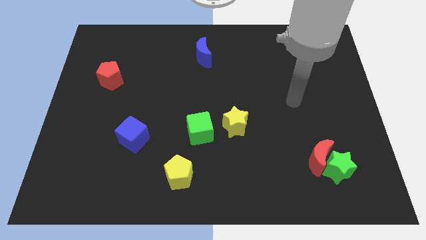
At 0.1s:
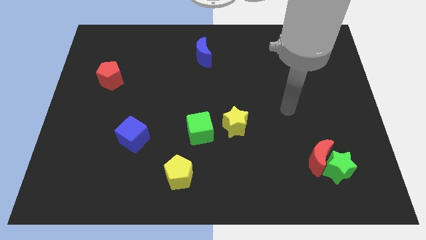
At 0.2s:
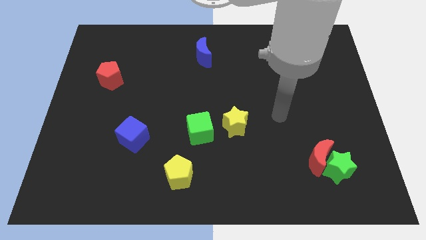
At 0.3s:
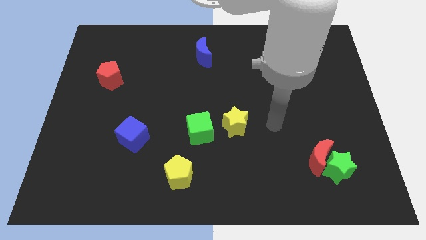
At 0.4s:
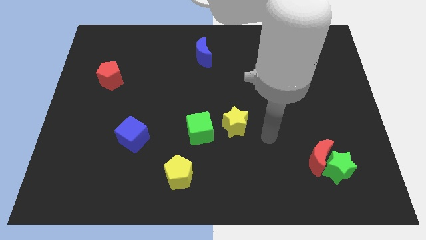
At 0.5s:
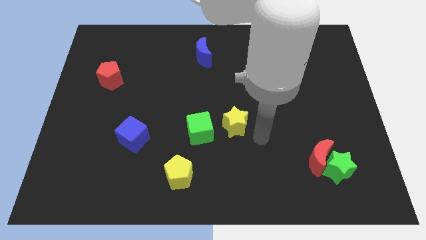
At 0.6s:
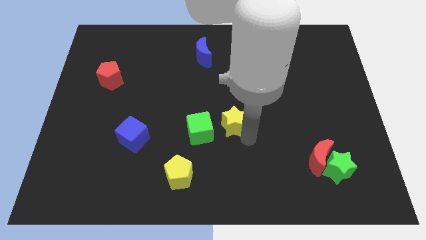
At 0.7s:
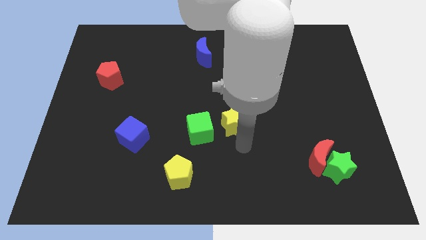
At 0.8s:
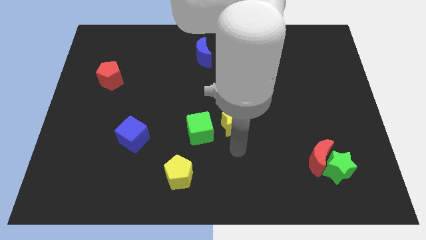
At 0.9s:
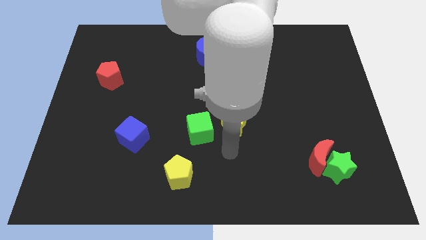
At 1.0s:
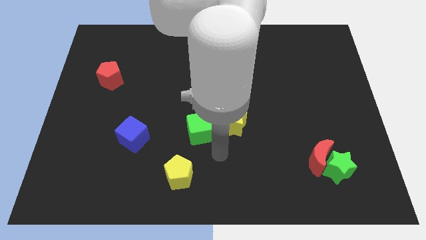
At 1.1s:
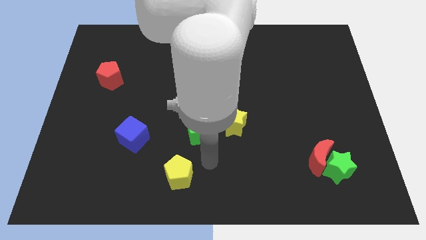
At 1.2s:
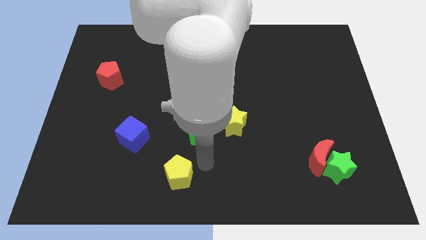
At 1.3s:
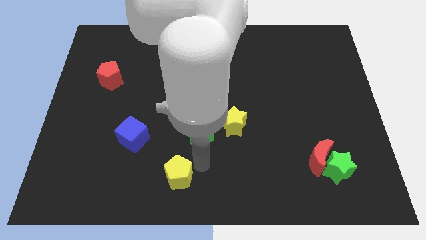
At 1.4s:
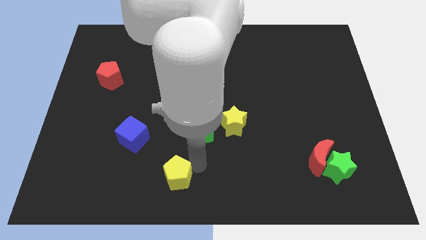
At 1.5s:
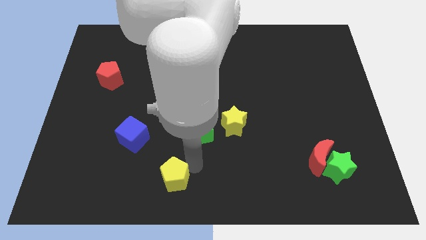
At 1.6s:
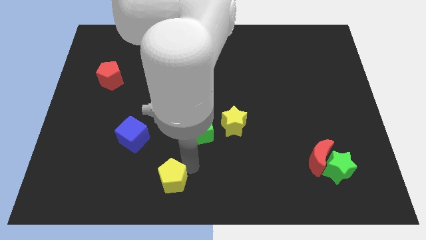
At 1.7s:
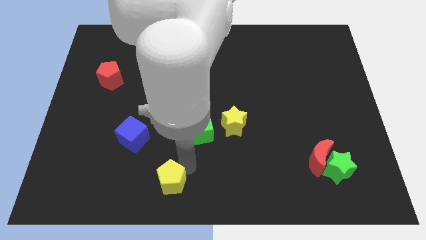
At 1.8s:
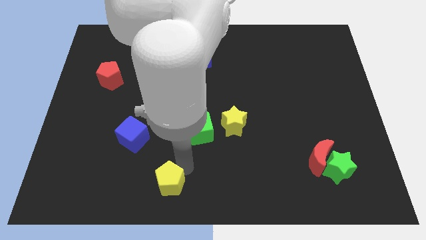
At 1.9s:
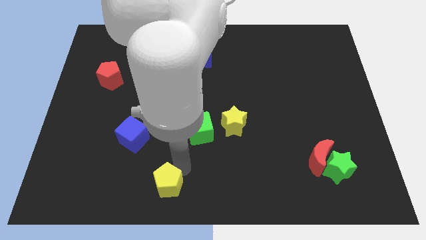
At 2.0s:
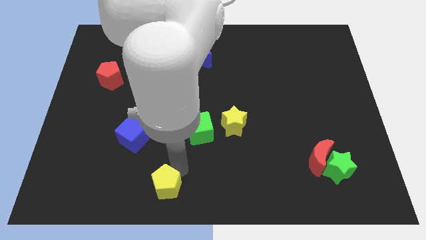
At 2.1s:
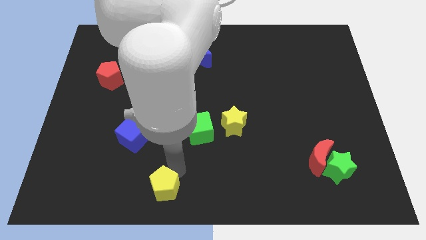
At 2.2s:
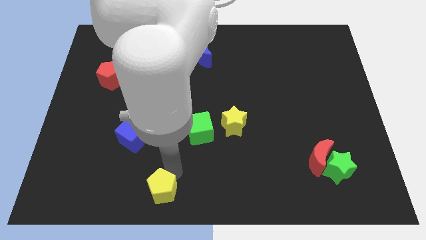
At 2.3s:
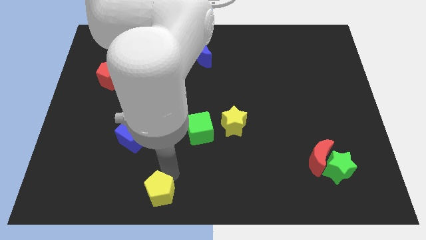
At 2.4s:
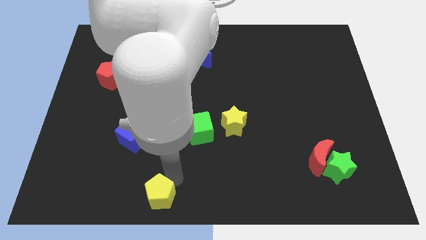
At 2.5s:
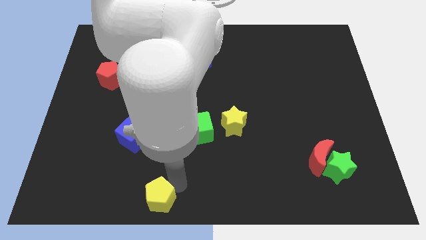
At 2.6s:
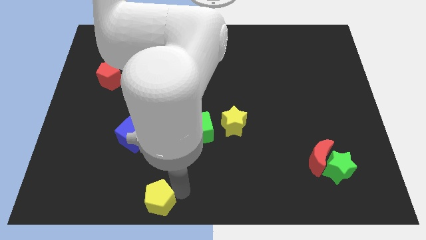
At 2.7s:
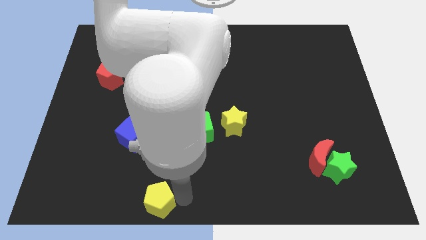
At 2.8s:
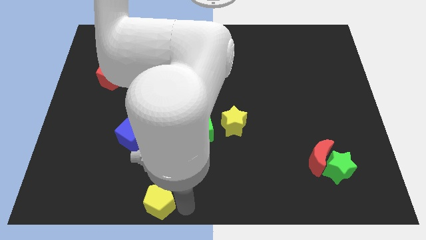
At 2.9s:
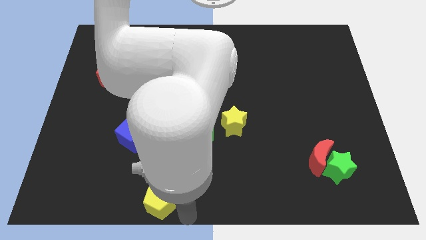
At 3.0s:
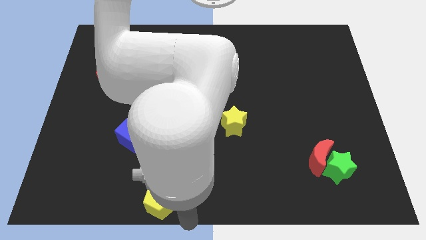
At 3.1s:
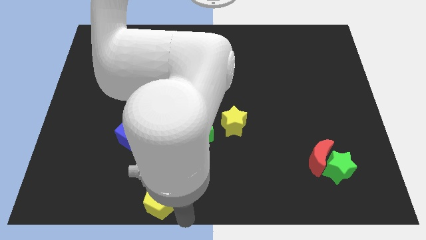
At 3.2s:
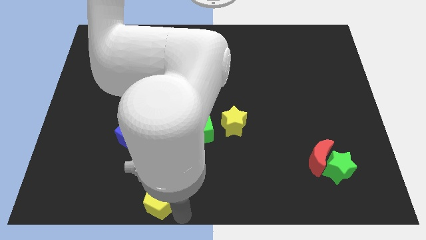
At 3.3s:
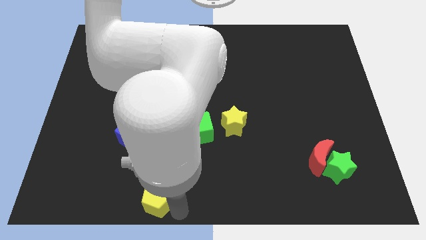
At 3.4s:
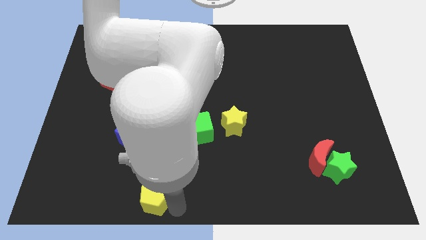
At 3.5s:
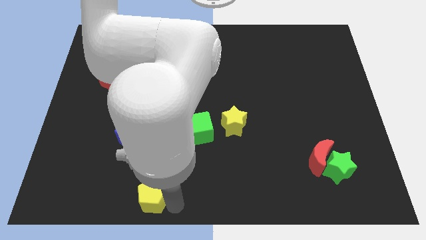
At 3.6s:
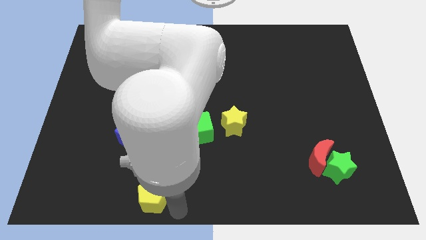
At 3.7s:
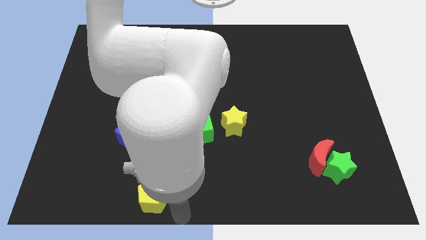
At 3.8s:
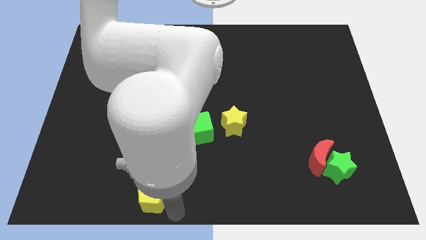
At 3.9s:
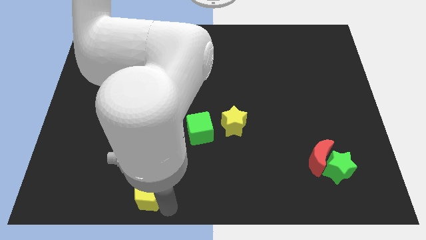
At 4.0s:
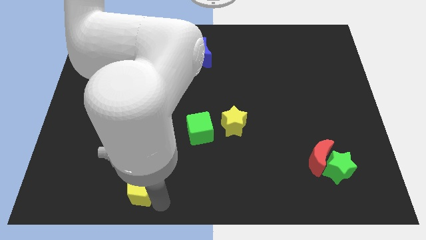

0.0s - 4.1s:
slightly slide the yellow pentagon to the left

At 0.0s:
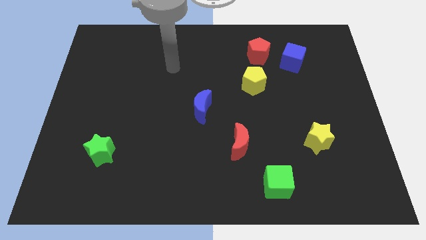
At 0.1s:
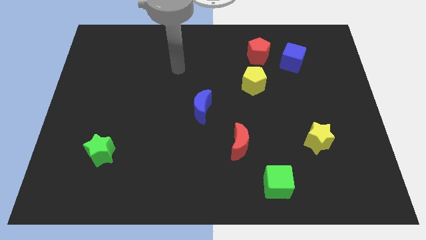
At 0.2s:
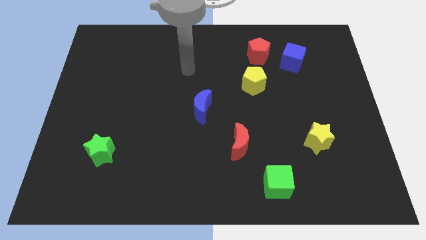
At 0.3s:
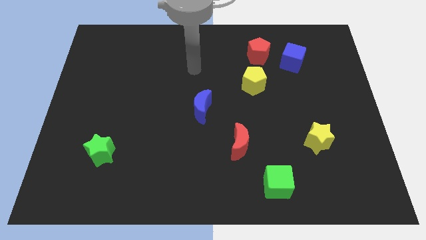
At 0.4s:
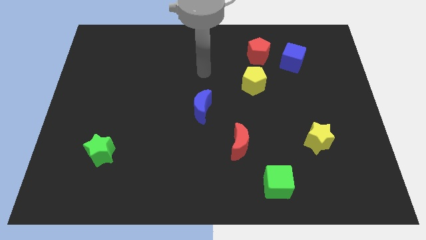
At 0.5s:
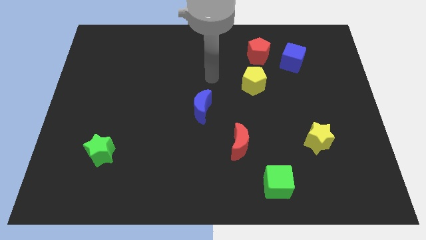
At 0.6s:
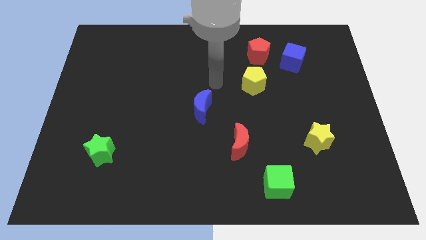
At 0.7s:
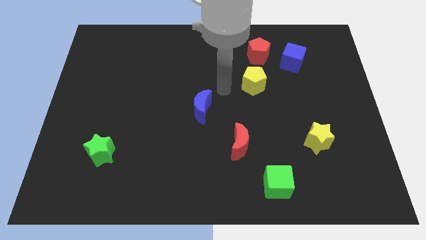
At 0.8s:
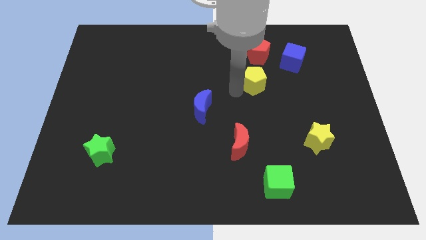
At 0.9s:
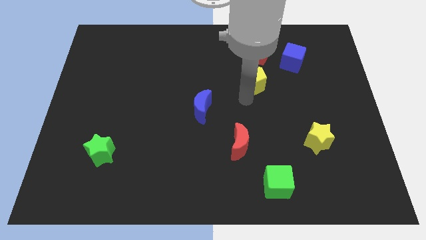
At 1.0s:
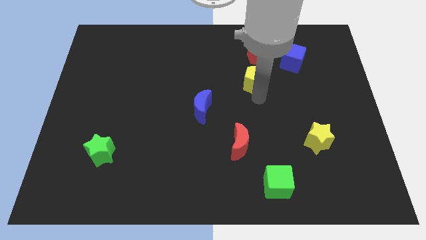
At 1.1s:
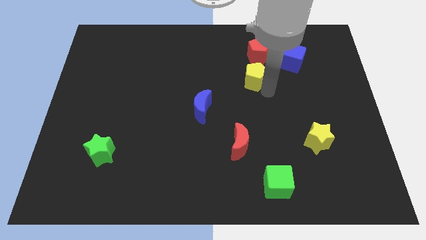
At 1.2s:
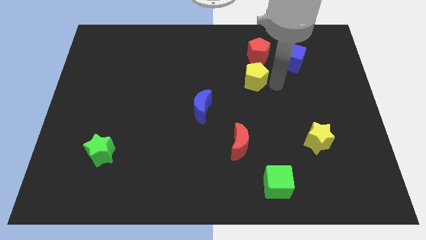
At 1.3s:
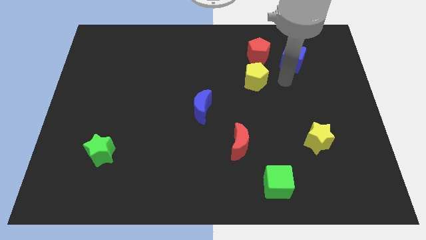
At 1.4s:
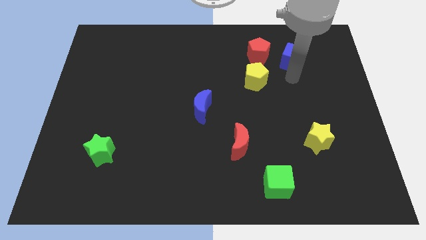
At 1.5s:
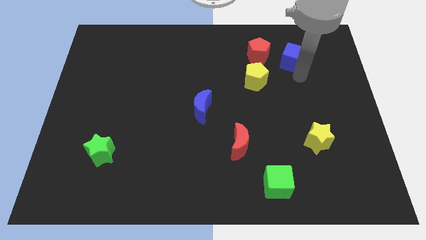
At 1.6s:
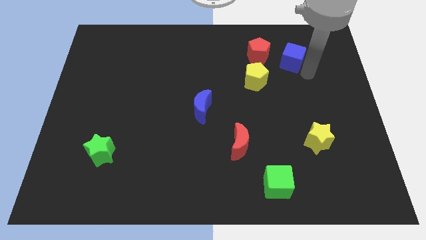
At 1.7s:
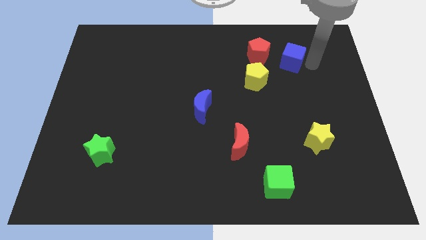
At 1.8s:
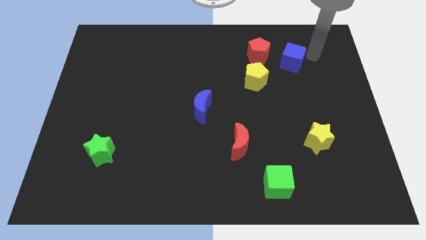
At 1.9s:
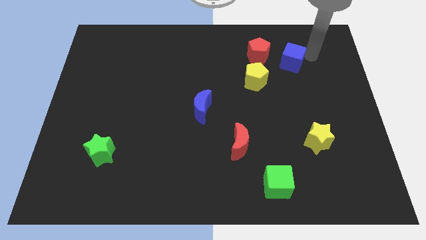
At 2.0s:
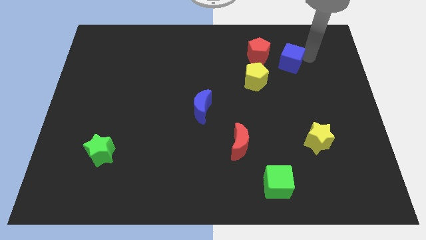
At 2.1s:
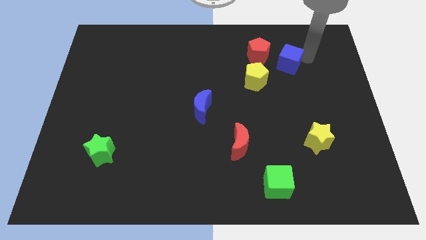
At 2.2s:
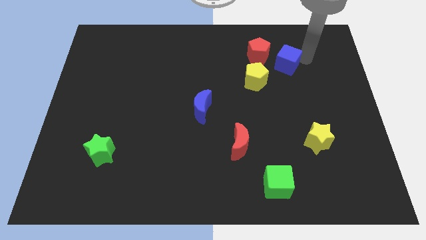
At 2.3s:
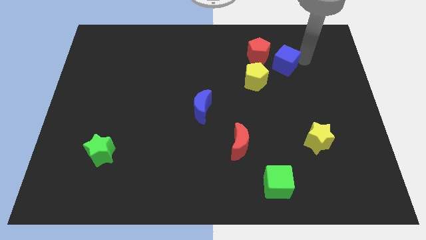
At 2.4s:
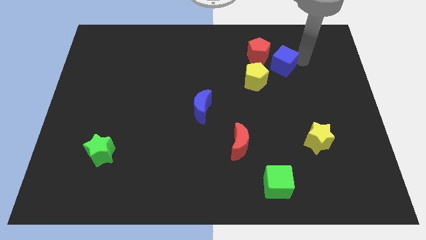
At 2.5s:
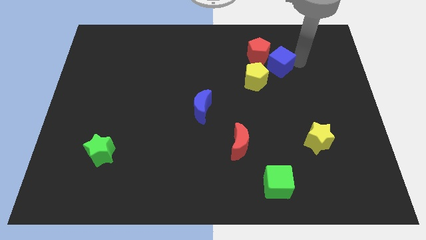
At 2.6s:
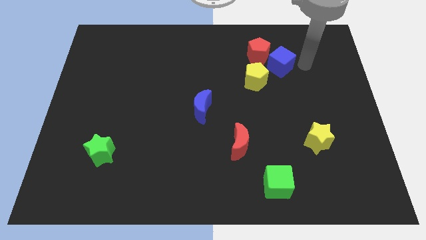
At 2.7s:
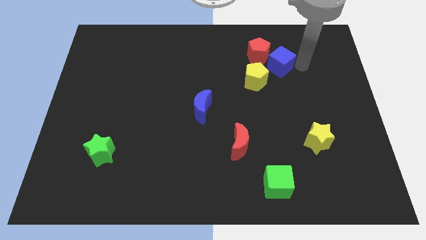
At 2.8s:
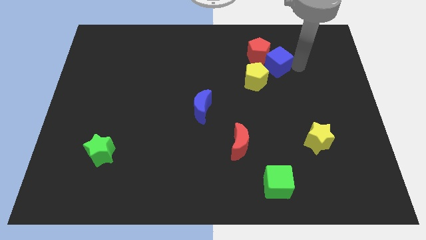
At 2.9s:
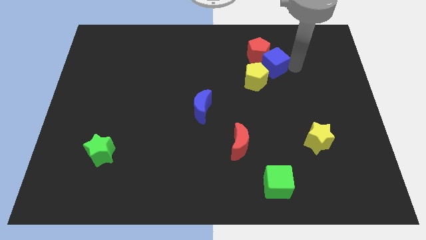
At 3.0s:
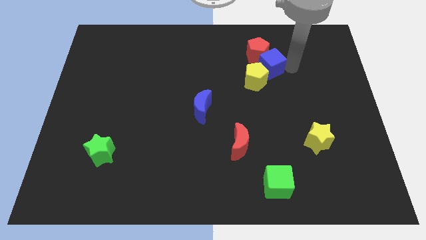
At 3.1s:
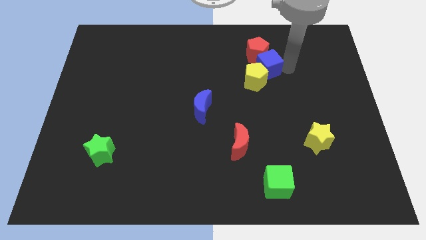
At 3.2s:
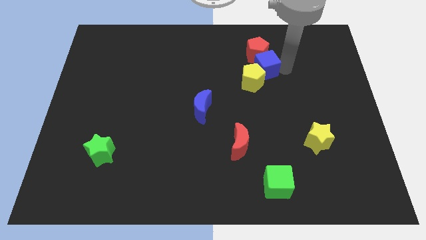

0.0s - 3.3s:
slide the blue cube slightly left

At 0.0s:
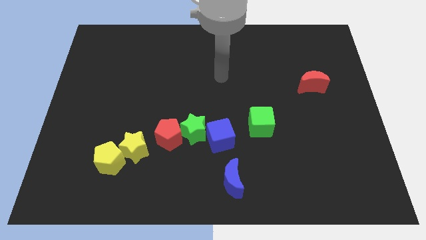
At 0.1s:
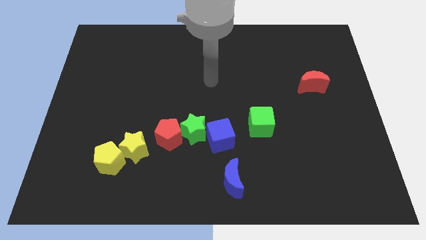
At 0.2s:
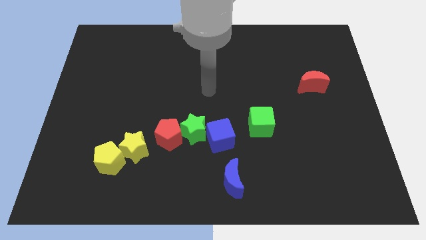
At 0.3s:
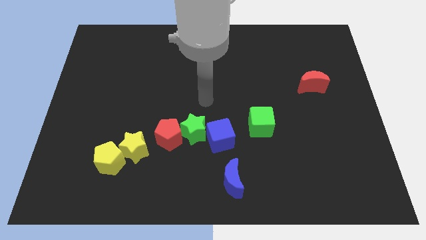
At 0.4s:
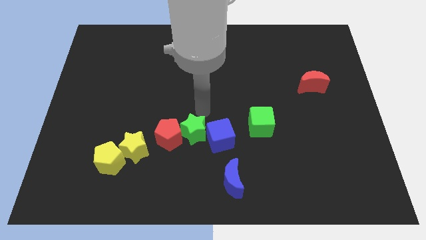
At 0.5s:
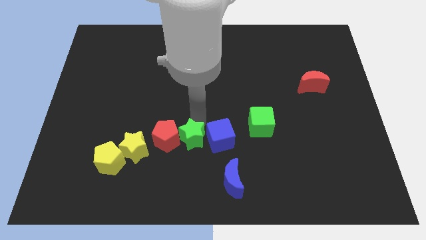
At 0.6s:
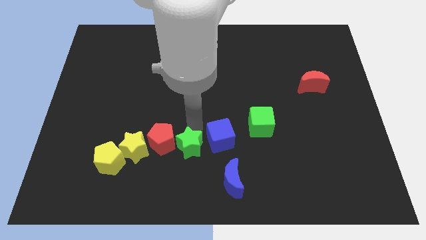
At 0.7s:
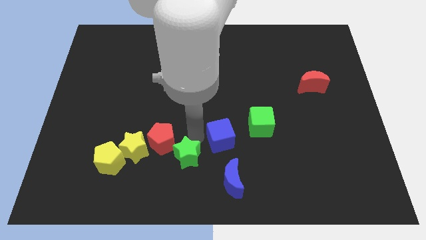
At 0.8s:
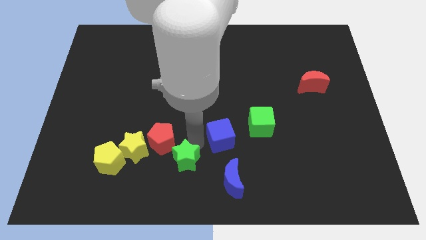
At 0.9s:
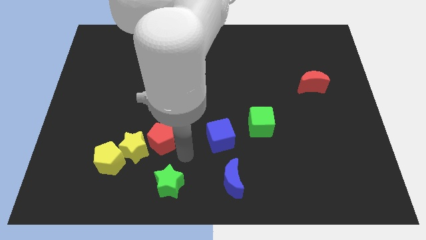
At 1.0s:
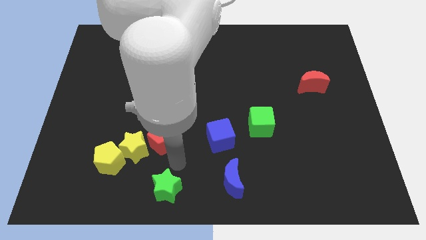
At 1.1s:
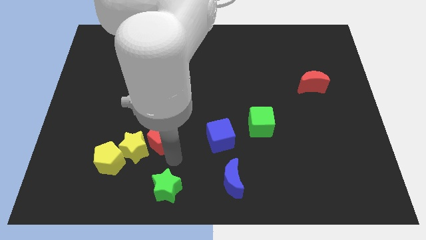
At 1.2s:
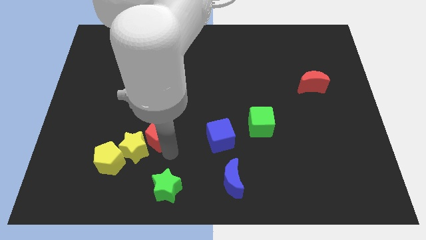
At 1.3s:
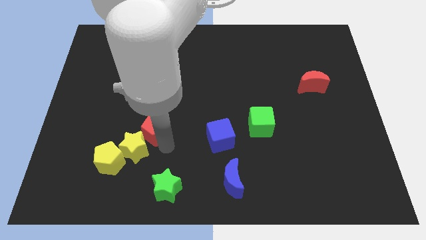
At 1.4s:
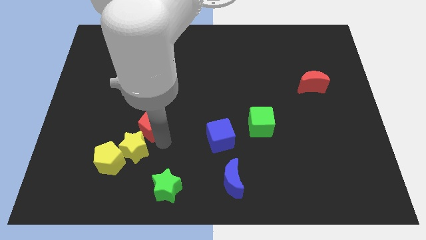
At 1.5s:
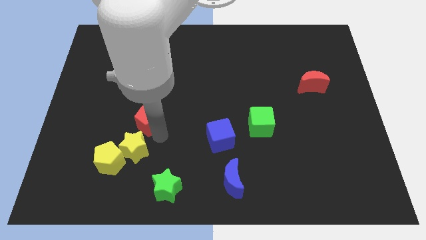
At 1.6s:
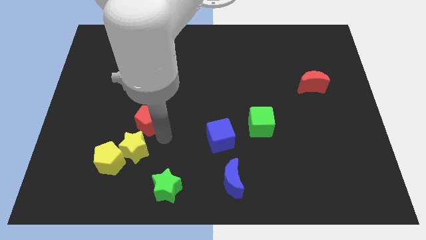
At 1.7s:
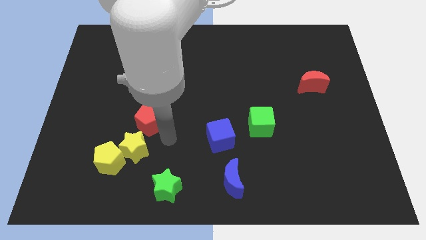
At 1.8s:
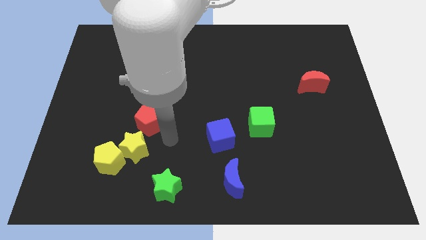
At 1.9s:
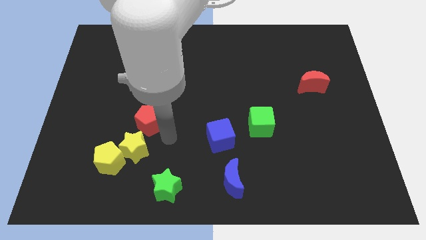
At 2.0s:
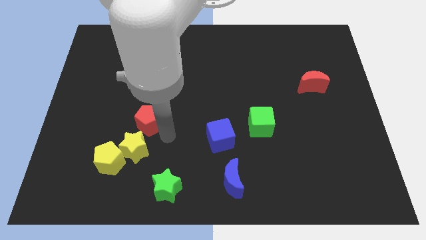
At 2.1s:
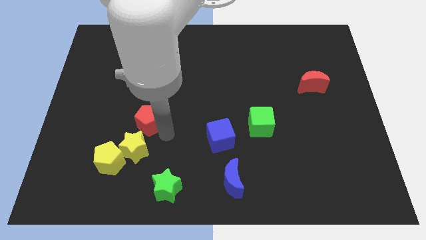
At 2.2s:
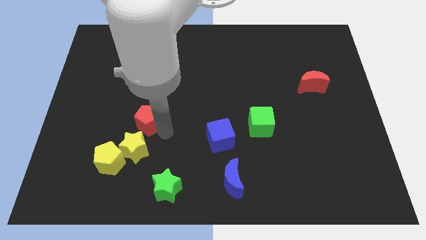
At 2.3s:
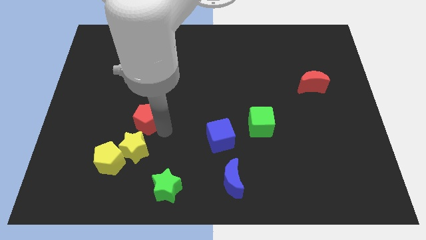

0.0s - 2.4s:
slightly move the red pentagon diagonally upwards and left
